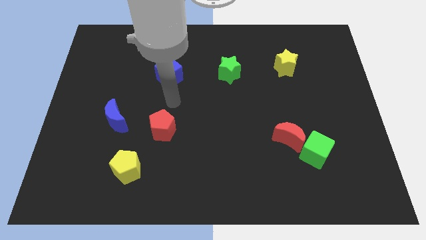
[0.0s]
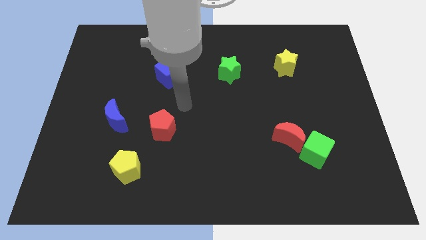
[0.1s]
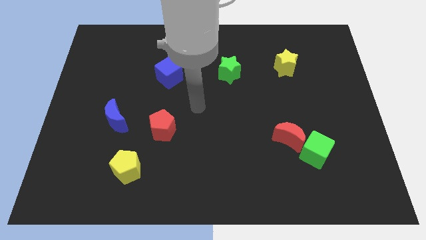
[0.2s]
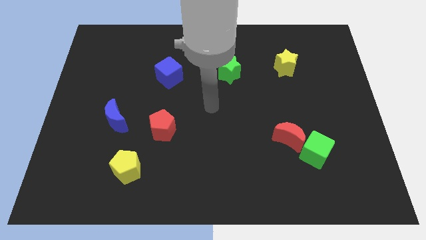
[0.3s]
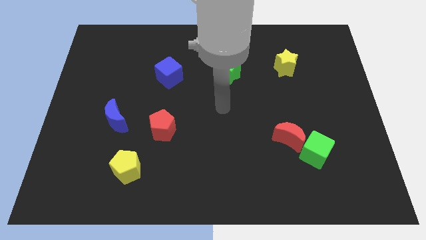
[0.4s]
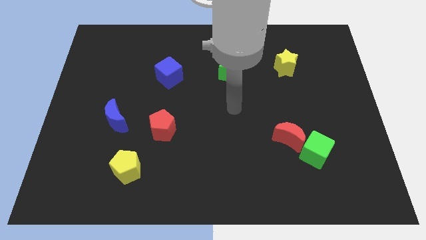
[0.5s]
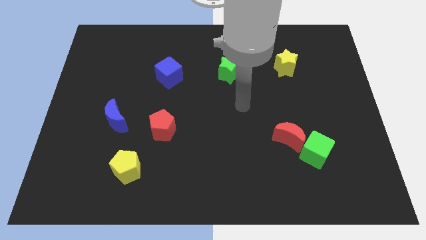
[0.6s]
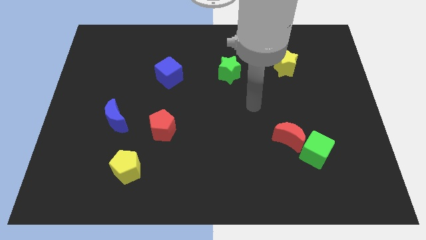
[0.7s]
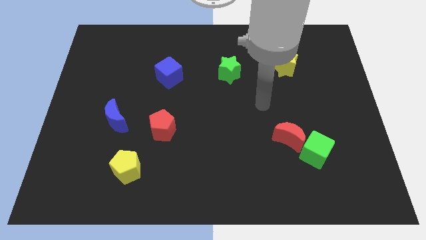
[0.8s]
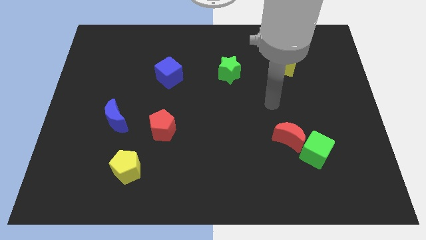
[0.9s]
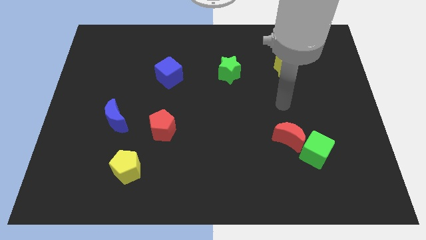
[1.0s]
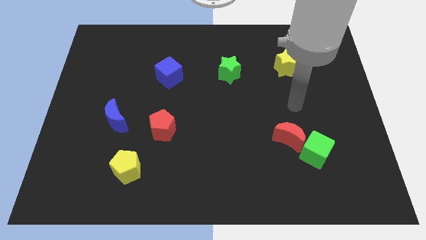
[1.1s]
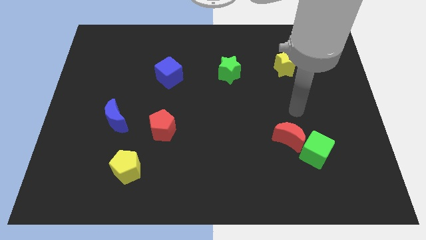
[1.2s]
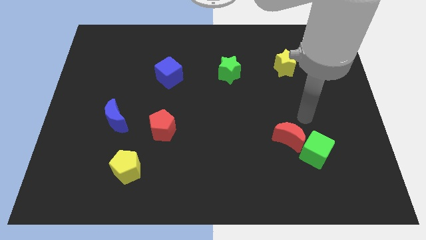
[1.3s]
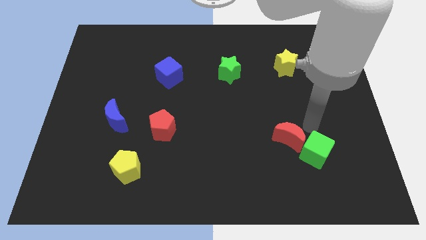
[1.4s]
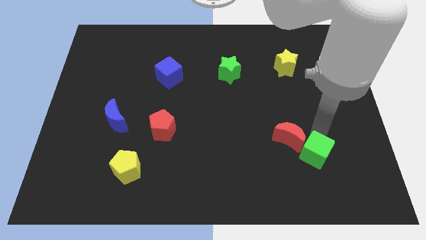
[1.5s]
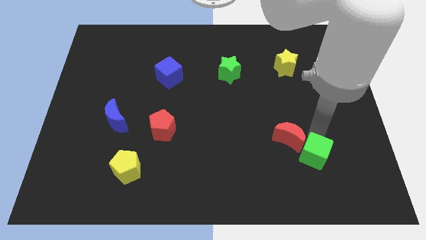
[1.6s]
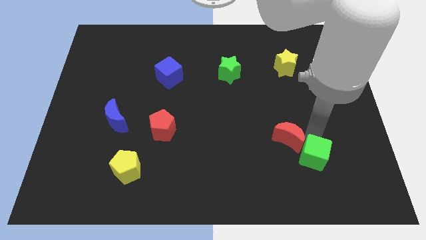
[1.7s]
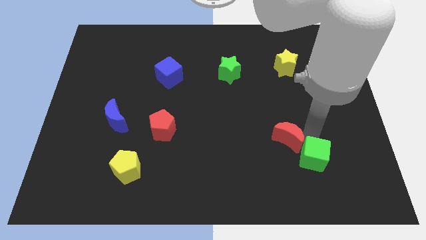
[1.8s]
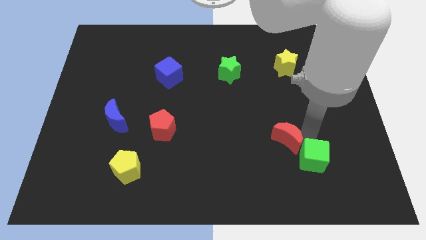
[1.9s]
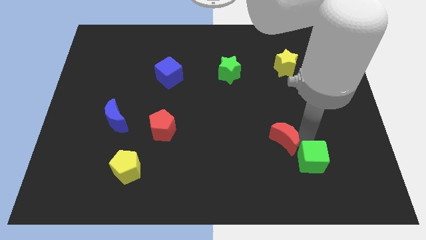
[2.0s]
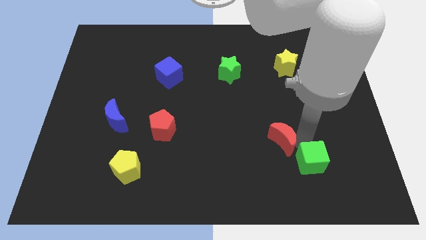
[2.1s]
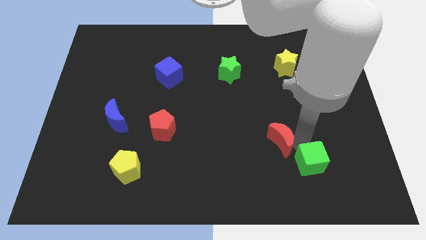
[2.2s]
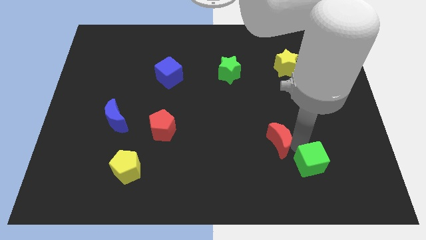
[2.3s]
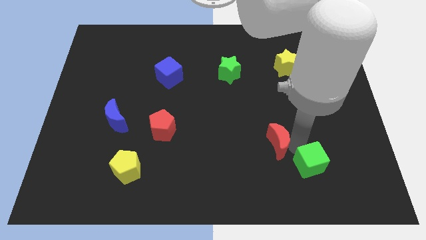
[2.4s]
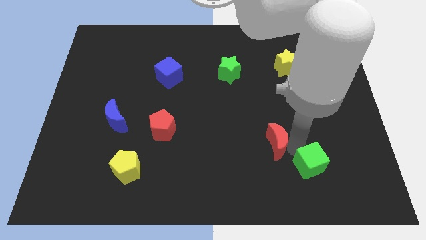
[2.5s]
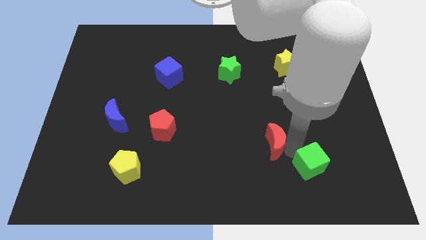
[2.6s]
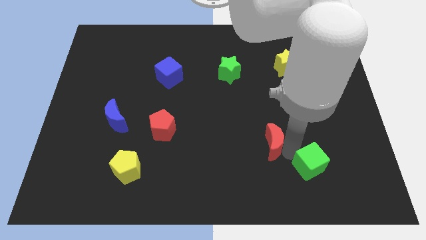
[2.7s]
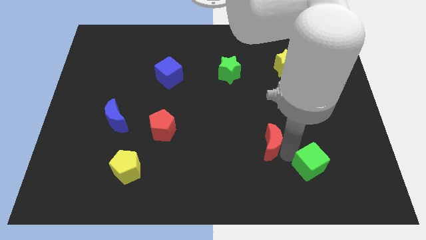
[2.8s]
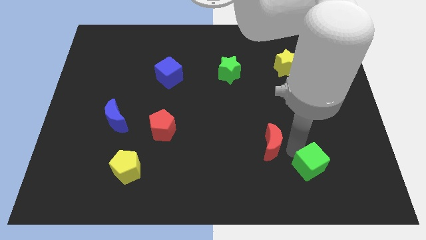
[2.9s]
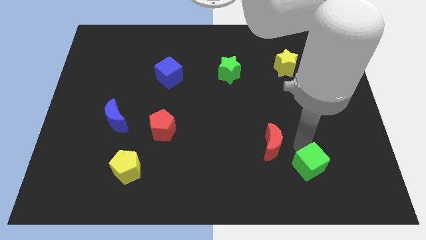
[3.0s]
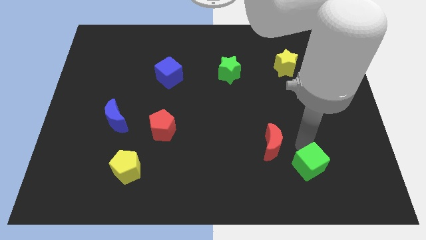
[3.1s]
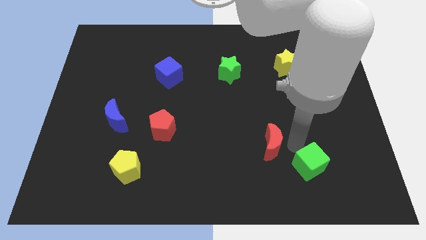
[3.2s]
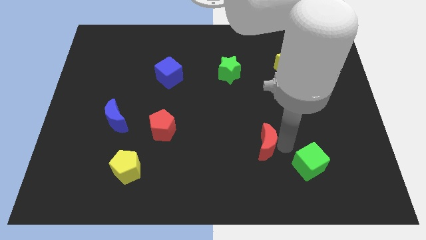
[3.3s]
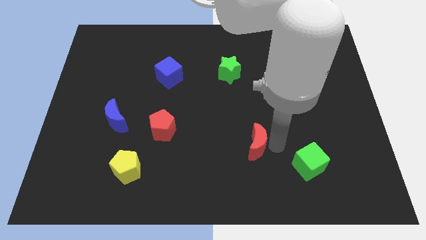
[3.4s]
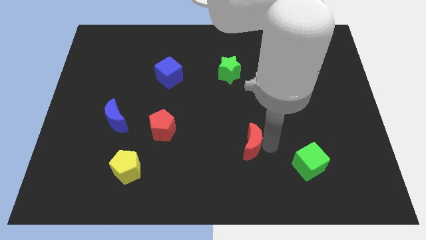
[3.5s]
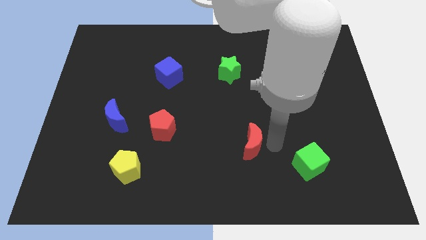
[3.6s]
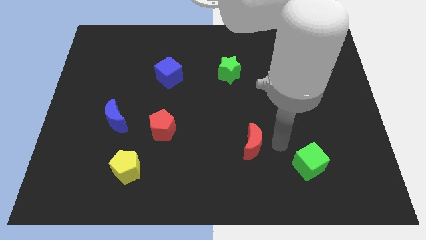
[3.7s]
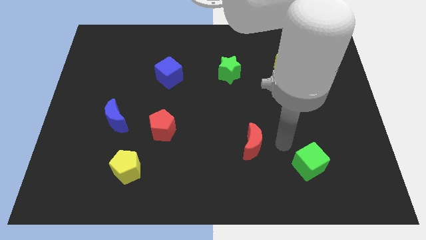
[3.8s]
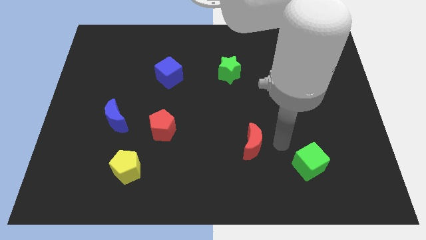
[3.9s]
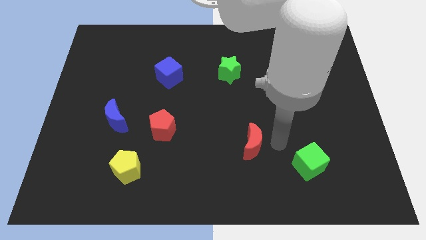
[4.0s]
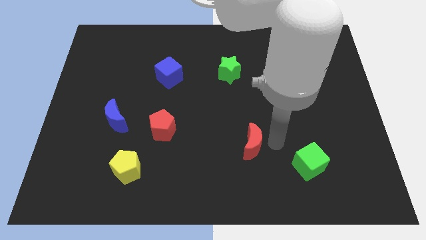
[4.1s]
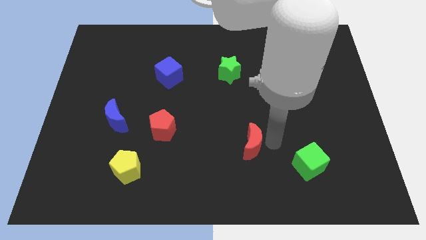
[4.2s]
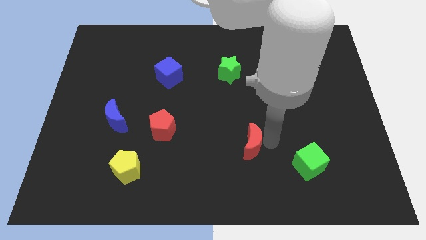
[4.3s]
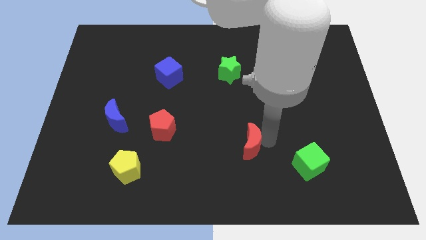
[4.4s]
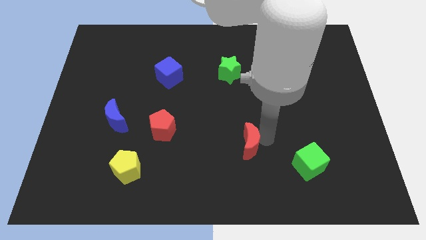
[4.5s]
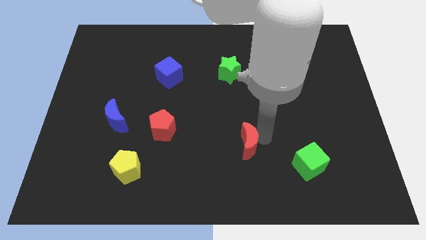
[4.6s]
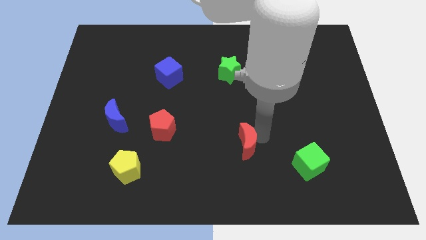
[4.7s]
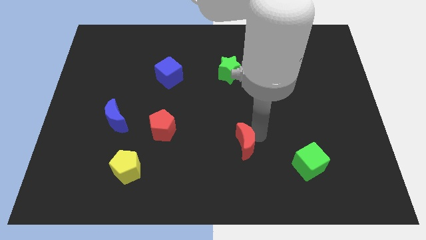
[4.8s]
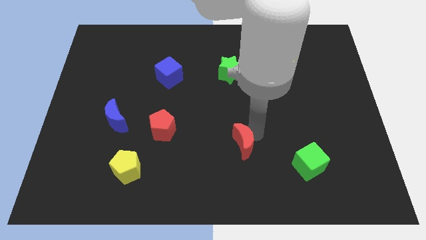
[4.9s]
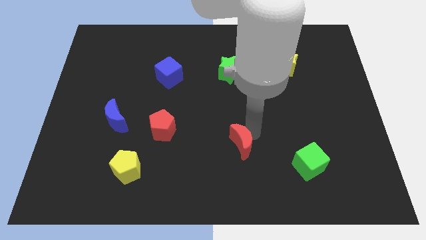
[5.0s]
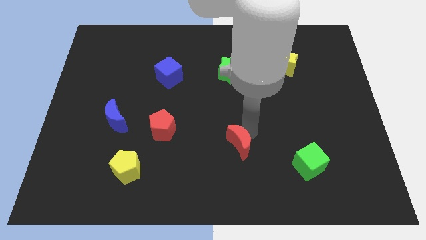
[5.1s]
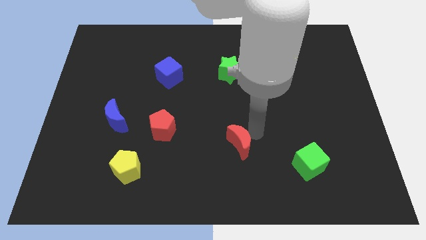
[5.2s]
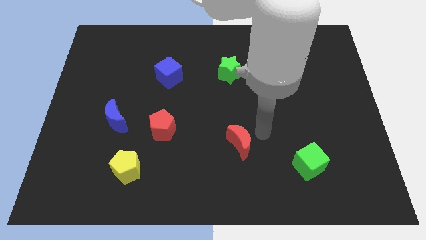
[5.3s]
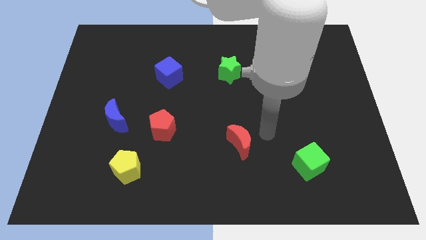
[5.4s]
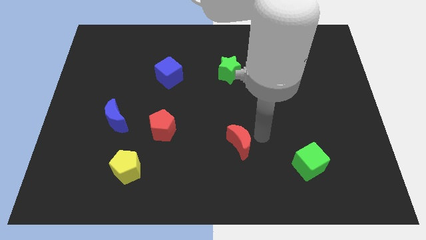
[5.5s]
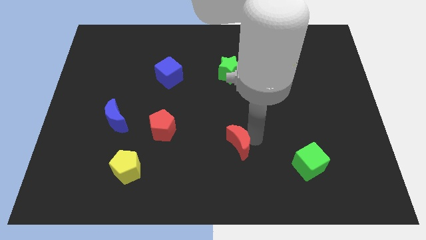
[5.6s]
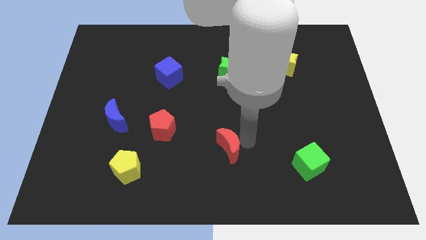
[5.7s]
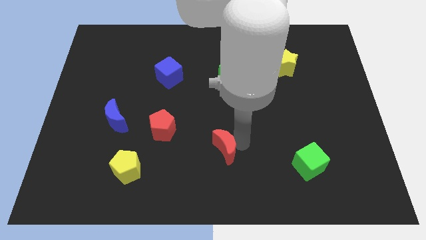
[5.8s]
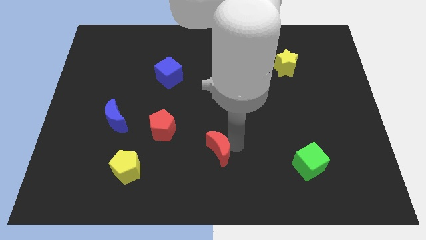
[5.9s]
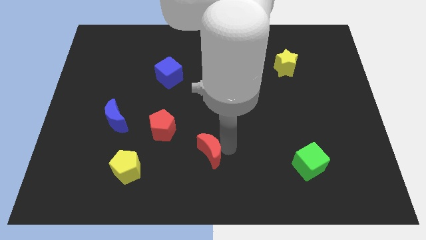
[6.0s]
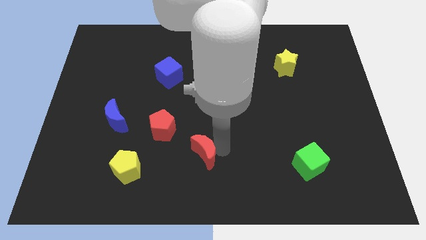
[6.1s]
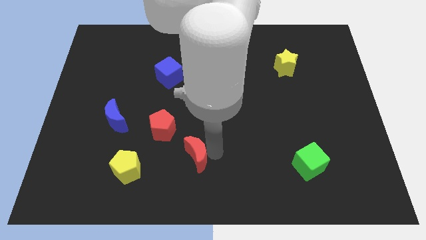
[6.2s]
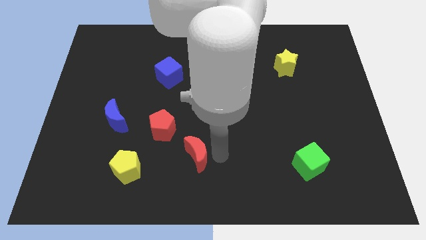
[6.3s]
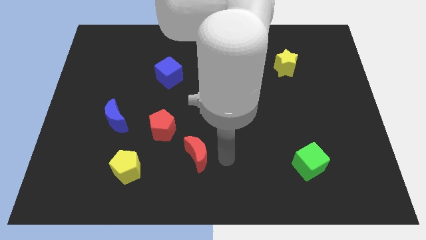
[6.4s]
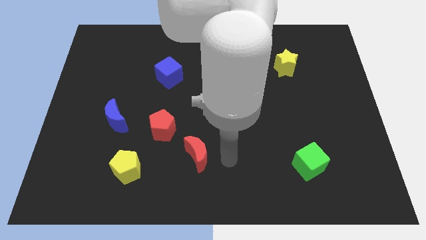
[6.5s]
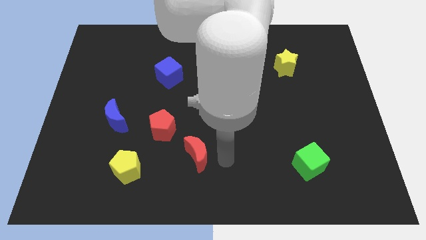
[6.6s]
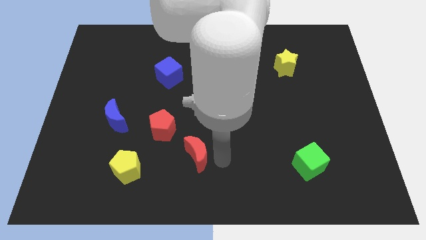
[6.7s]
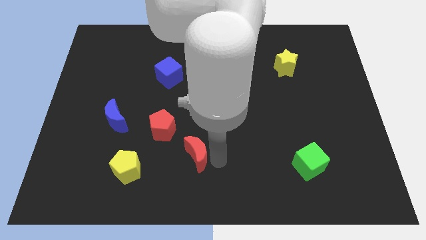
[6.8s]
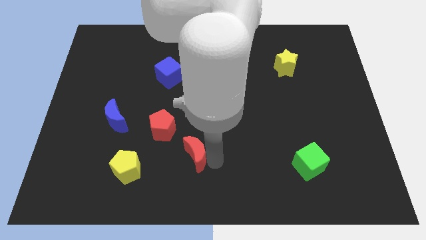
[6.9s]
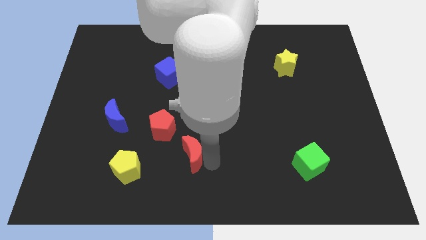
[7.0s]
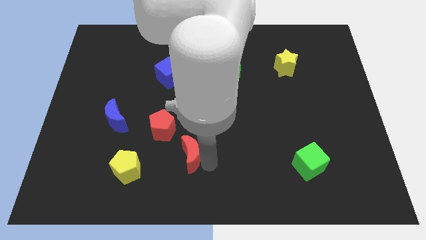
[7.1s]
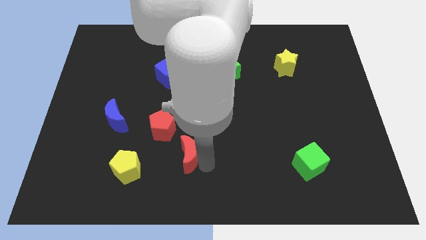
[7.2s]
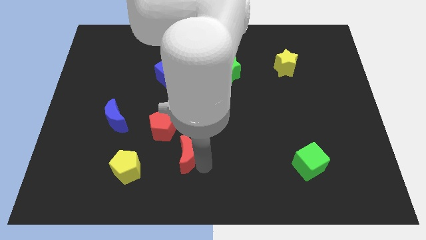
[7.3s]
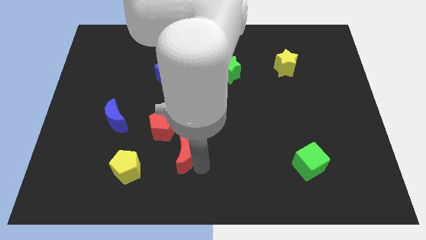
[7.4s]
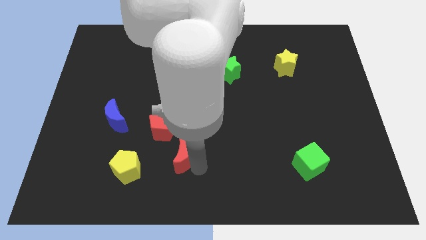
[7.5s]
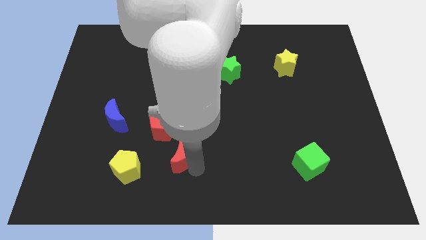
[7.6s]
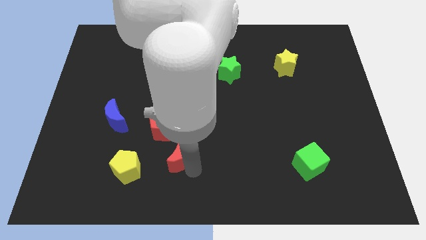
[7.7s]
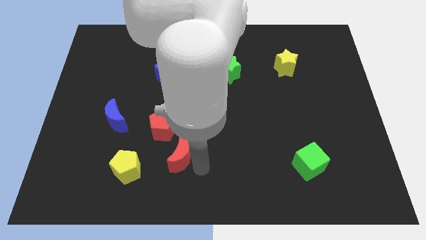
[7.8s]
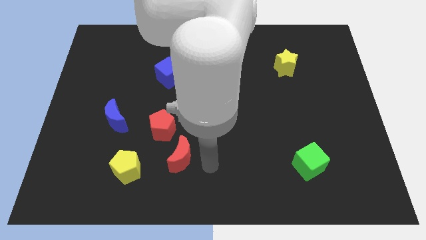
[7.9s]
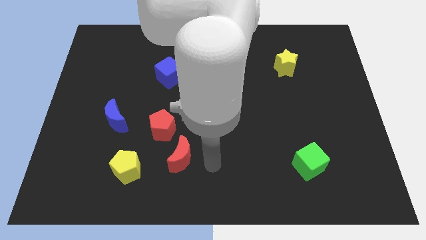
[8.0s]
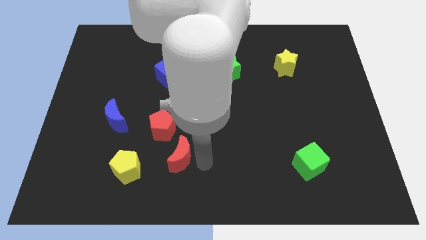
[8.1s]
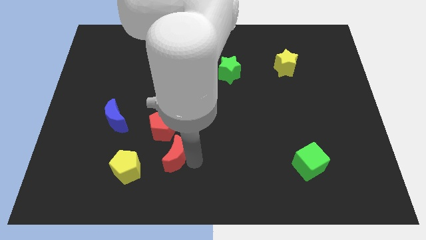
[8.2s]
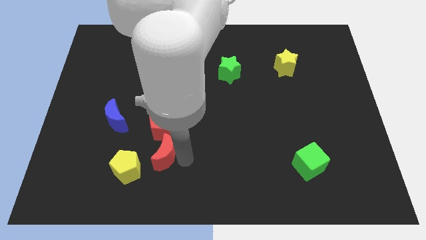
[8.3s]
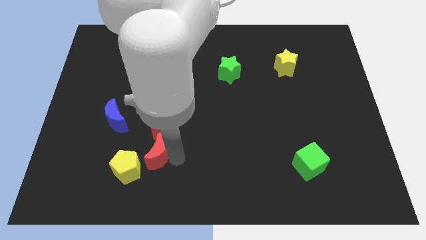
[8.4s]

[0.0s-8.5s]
put the red moon to the bottom left of the red pentagon
